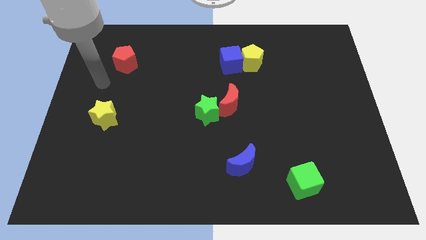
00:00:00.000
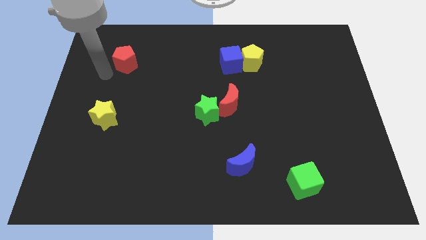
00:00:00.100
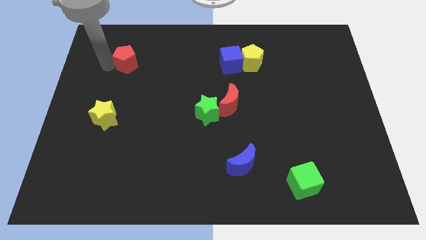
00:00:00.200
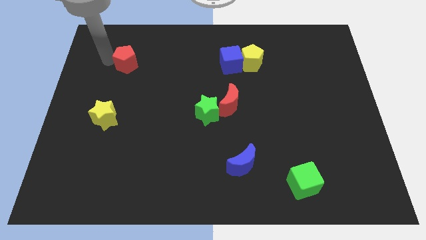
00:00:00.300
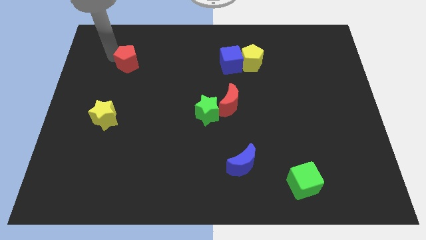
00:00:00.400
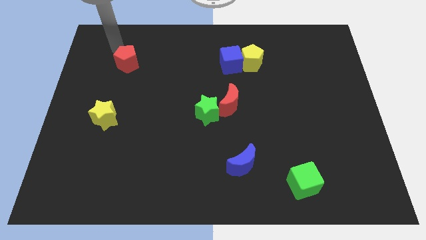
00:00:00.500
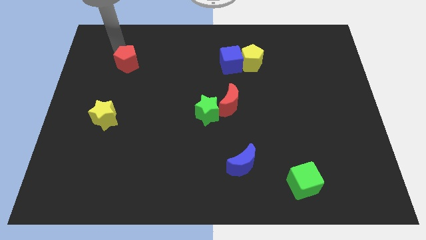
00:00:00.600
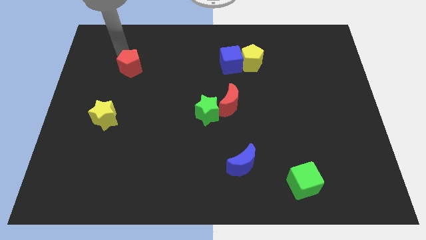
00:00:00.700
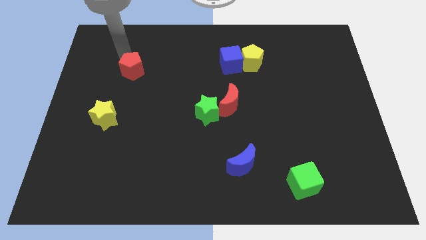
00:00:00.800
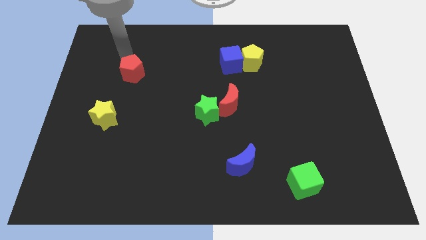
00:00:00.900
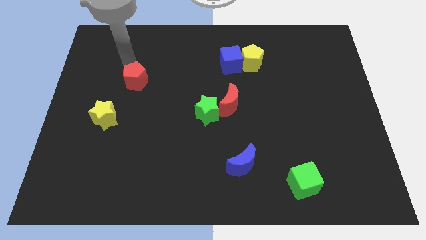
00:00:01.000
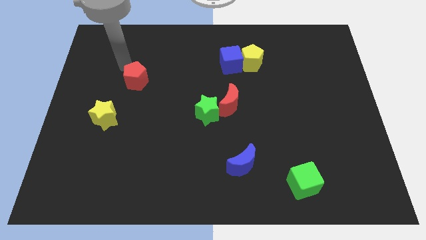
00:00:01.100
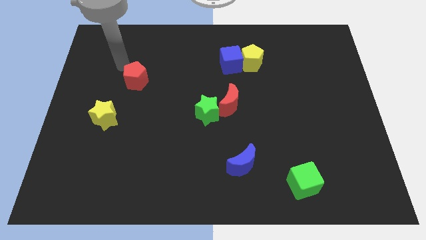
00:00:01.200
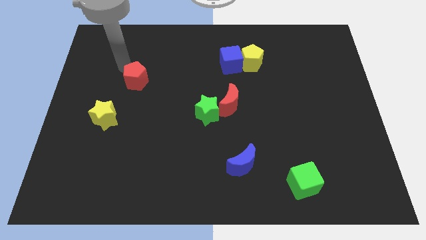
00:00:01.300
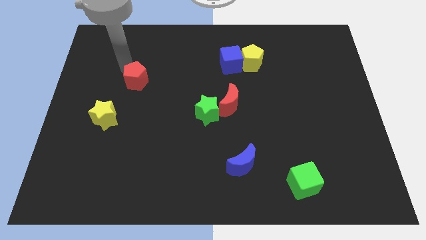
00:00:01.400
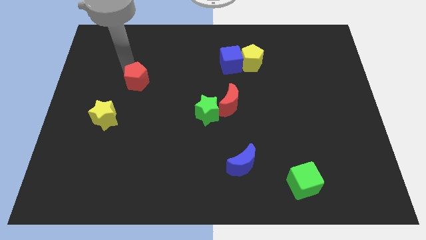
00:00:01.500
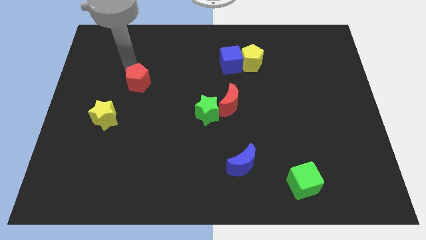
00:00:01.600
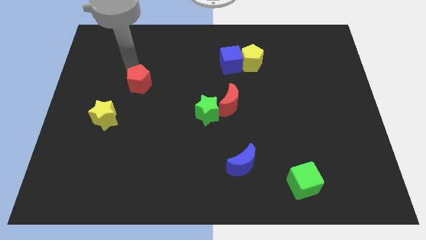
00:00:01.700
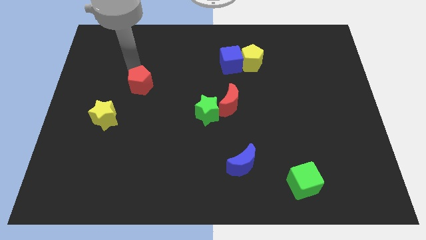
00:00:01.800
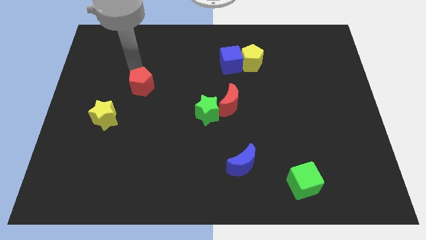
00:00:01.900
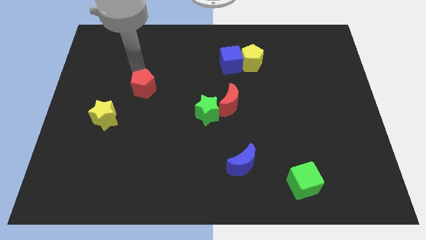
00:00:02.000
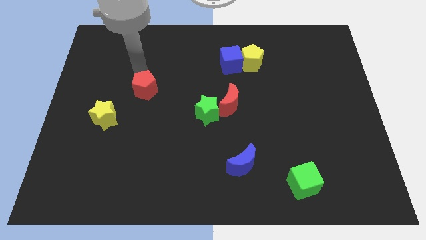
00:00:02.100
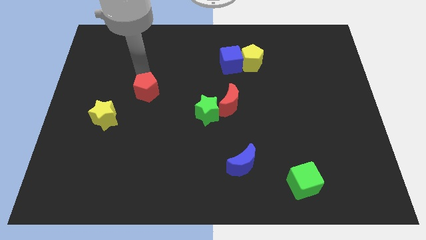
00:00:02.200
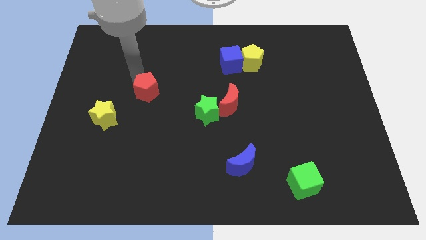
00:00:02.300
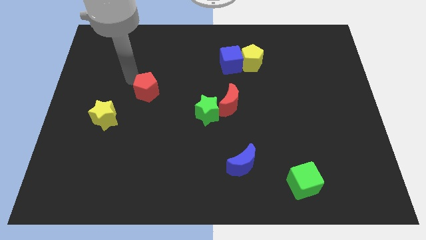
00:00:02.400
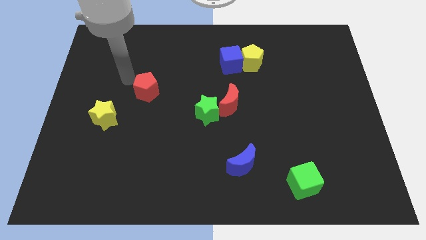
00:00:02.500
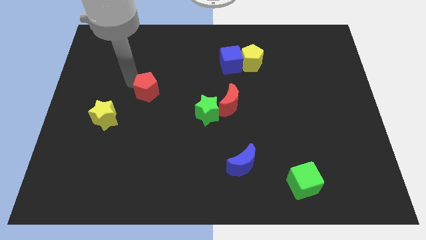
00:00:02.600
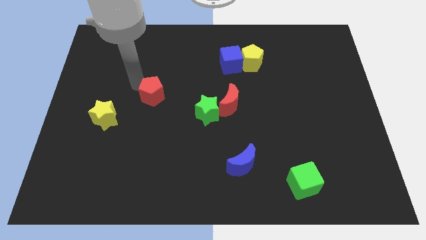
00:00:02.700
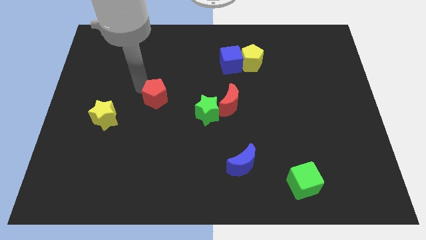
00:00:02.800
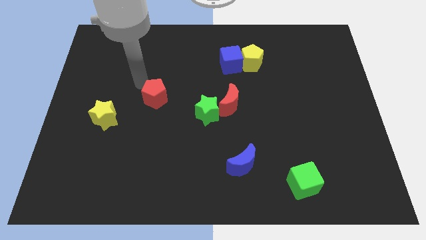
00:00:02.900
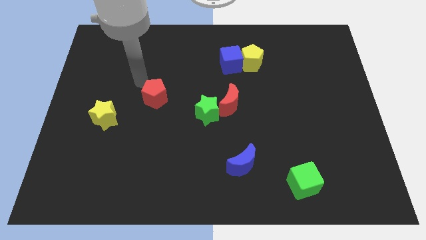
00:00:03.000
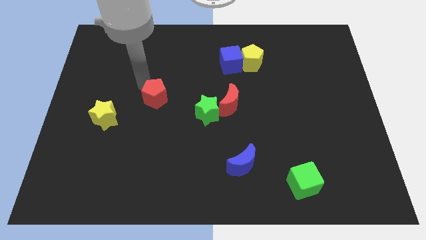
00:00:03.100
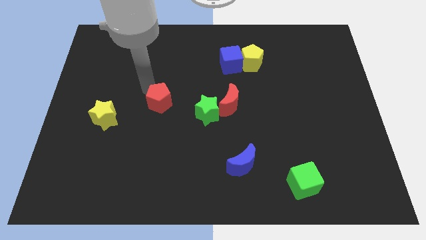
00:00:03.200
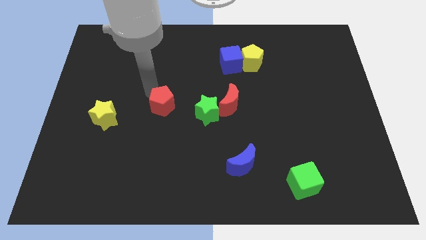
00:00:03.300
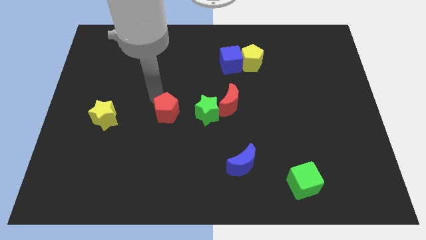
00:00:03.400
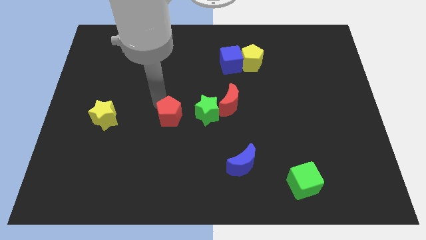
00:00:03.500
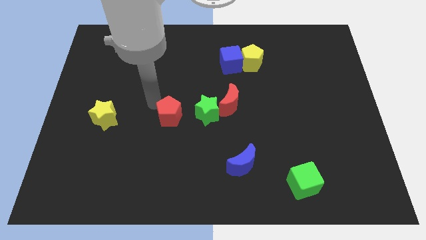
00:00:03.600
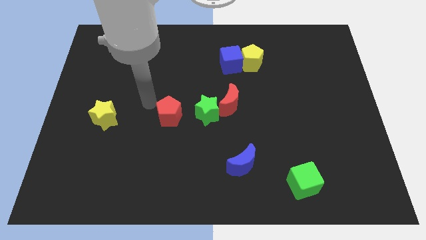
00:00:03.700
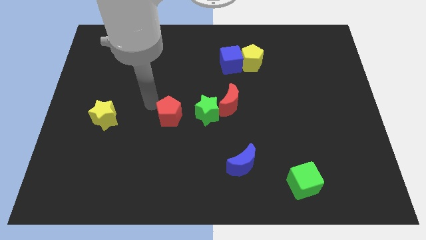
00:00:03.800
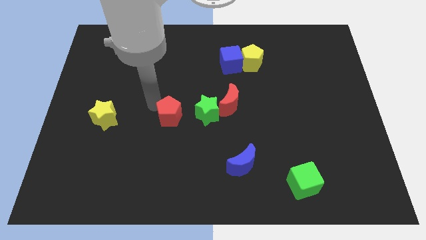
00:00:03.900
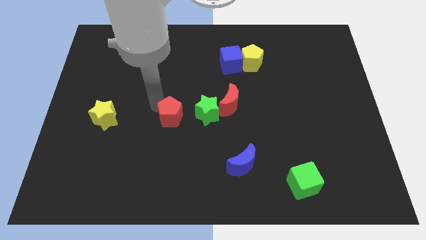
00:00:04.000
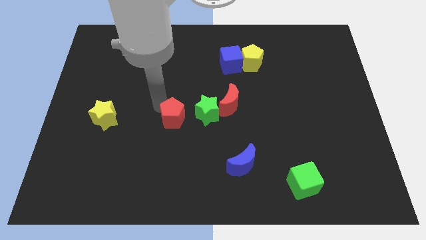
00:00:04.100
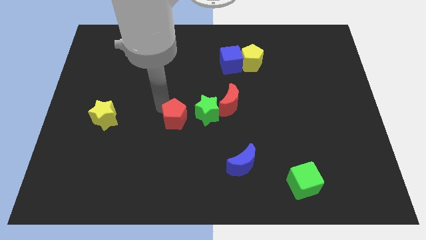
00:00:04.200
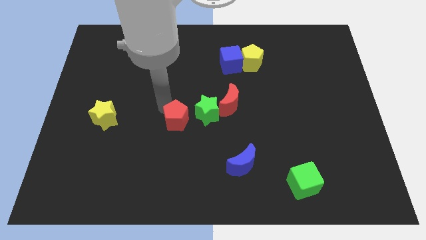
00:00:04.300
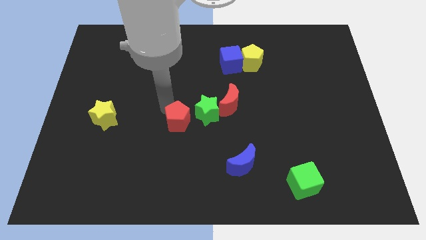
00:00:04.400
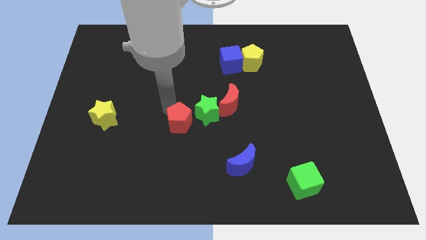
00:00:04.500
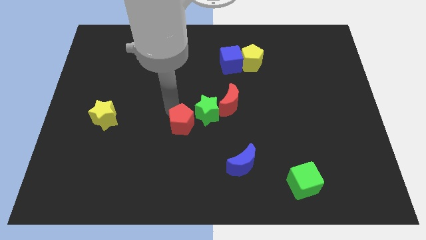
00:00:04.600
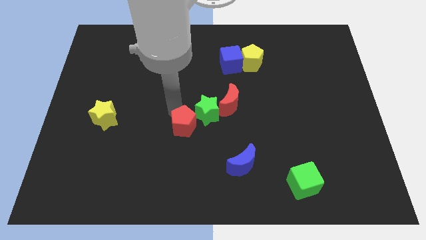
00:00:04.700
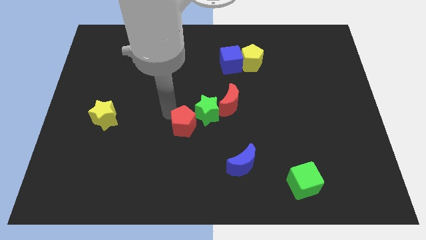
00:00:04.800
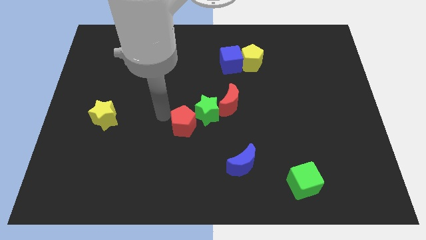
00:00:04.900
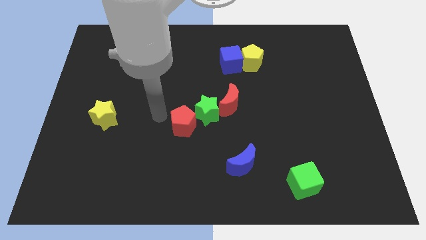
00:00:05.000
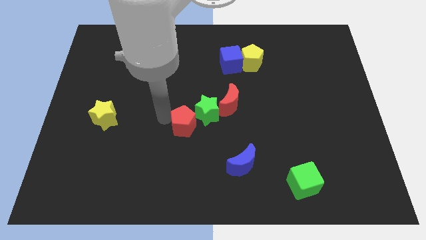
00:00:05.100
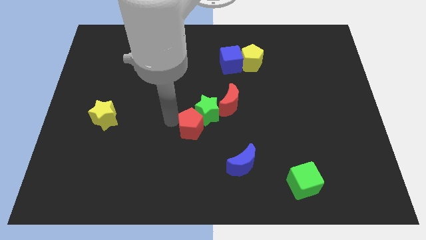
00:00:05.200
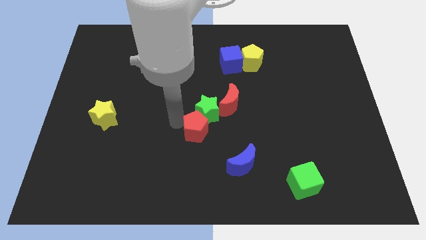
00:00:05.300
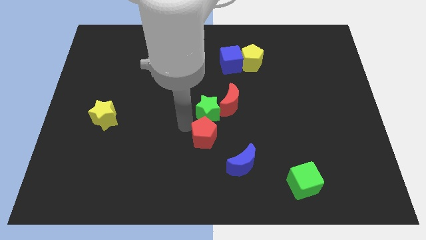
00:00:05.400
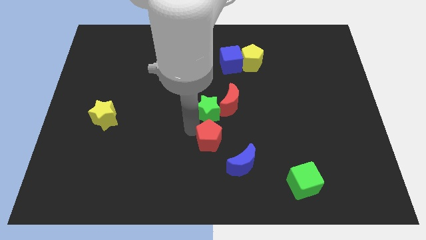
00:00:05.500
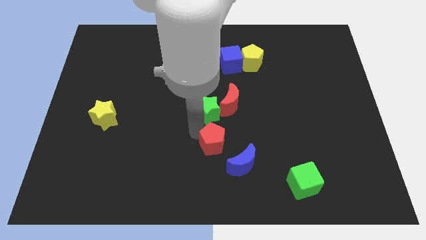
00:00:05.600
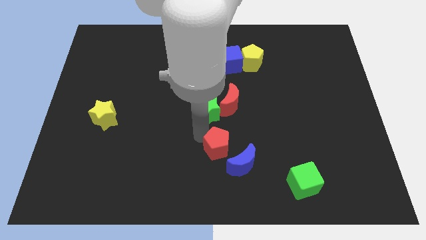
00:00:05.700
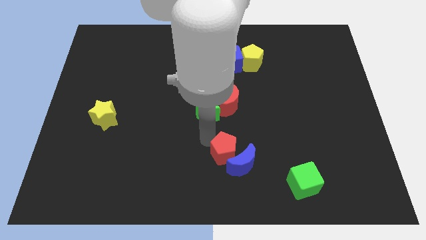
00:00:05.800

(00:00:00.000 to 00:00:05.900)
move the red pentagon close to the blue moon

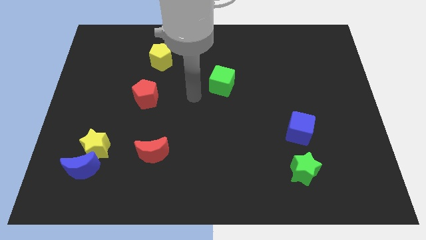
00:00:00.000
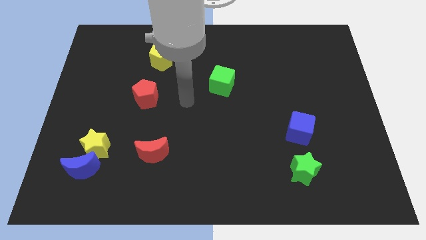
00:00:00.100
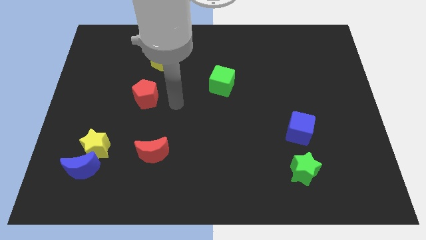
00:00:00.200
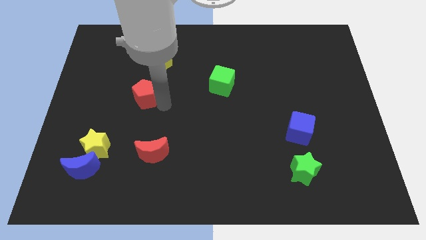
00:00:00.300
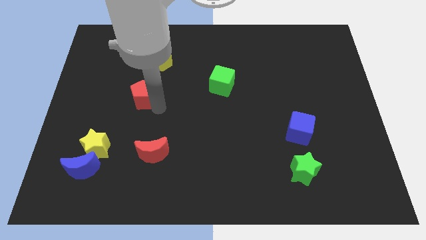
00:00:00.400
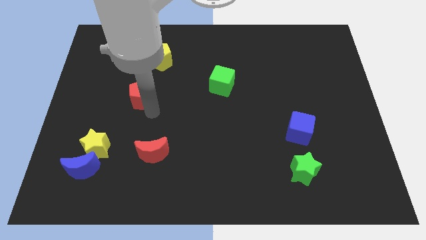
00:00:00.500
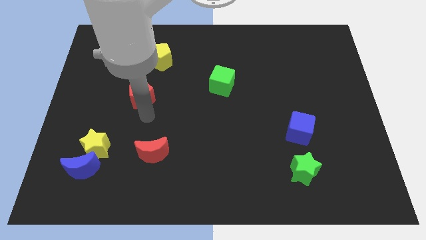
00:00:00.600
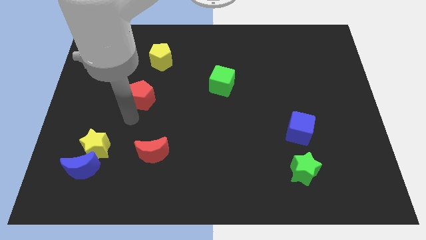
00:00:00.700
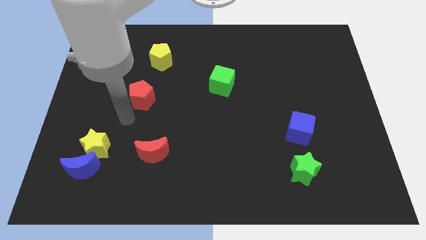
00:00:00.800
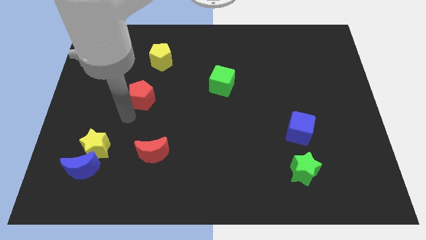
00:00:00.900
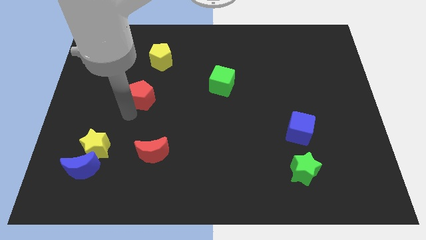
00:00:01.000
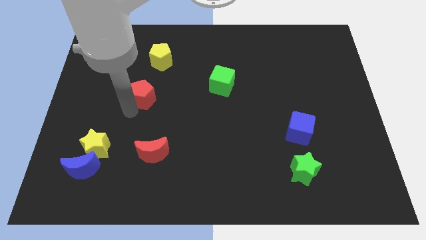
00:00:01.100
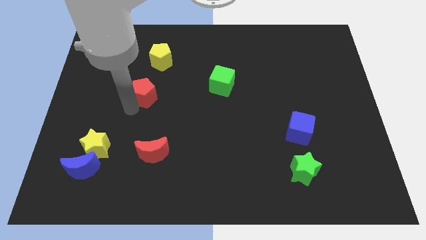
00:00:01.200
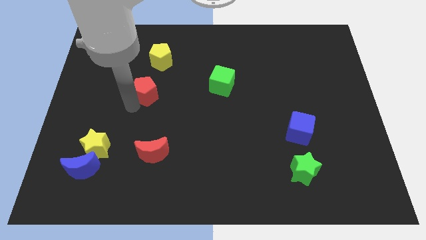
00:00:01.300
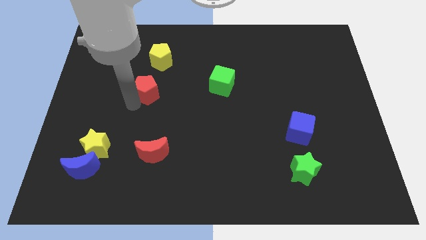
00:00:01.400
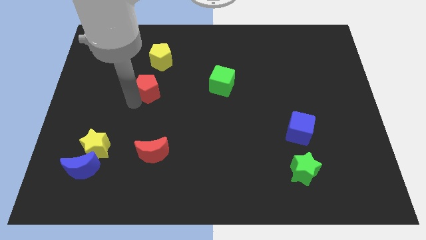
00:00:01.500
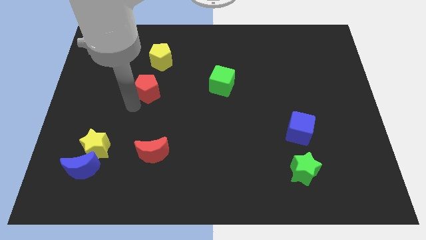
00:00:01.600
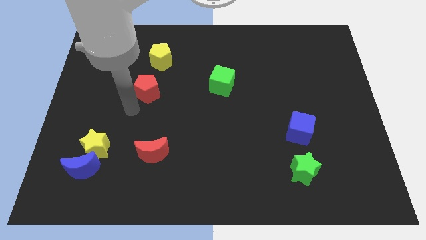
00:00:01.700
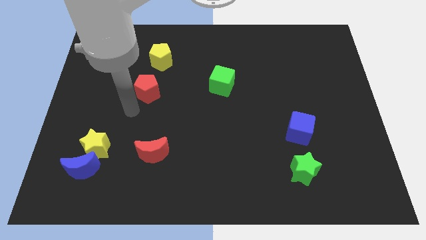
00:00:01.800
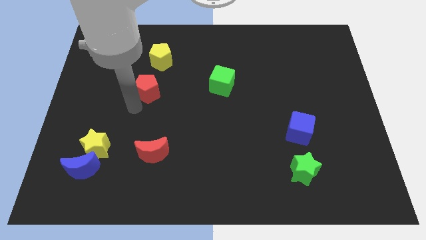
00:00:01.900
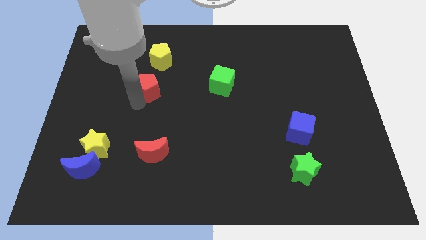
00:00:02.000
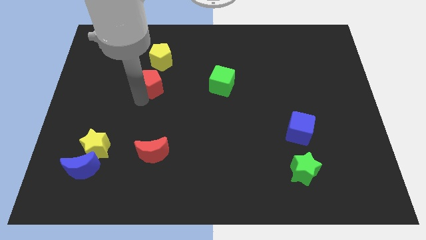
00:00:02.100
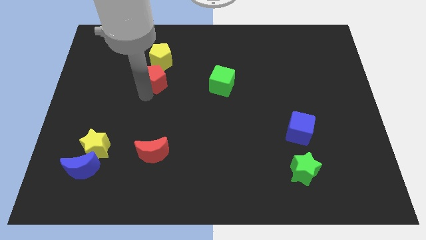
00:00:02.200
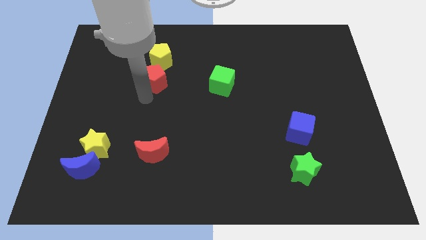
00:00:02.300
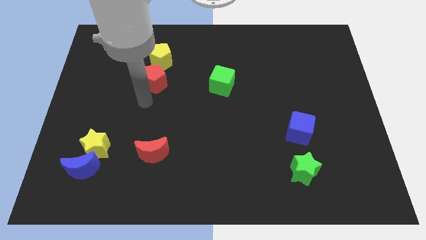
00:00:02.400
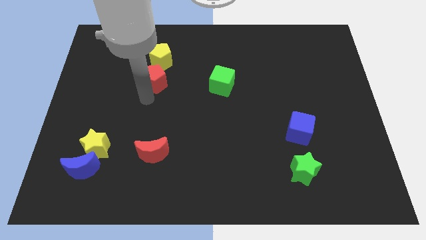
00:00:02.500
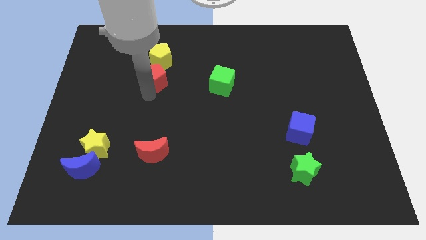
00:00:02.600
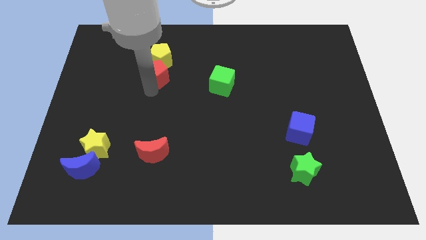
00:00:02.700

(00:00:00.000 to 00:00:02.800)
slide the red pentagon close to the yellow pentagon
